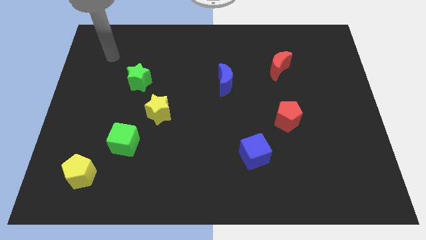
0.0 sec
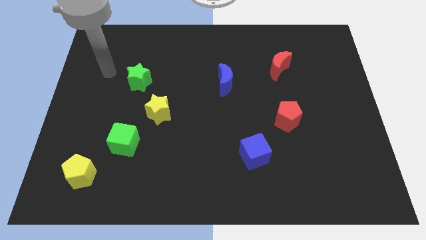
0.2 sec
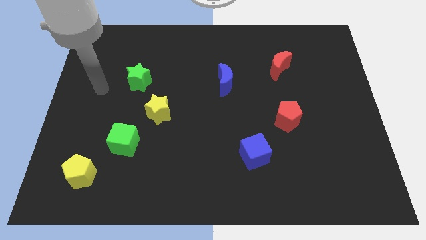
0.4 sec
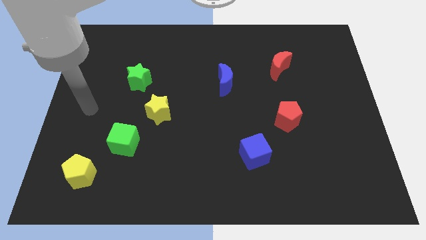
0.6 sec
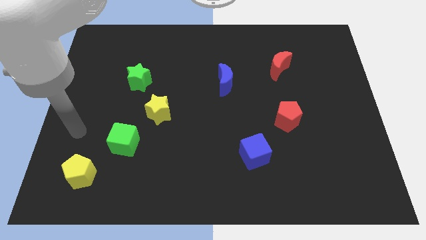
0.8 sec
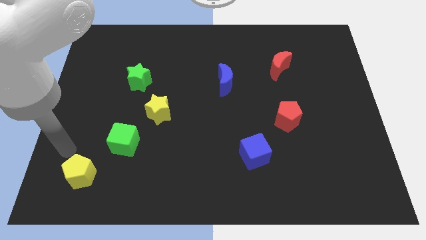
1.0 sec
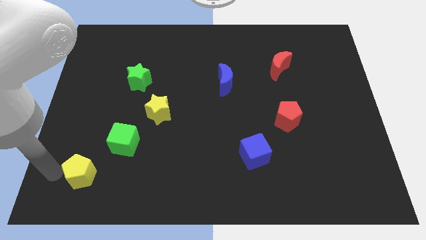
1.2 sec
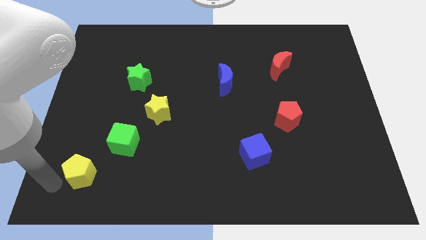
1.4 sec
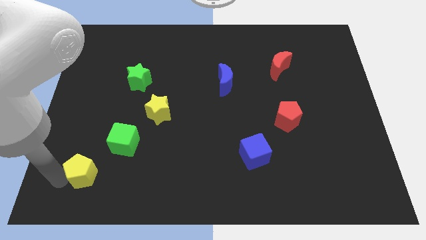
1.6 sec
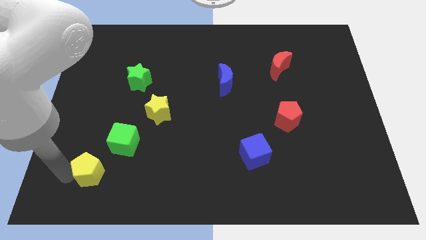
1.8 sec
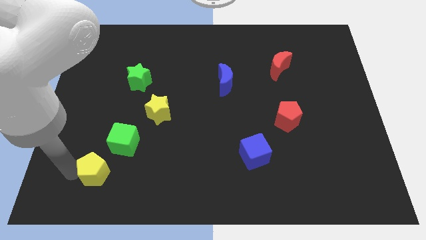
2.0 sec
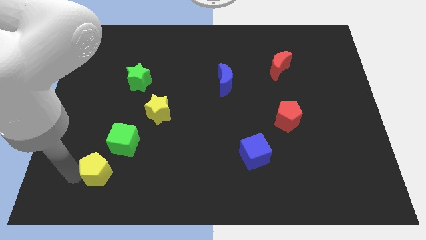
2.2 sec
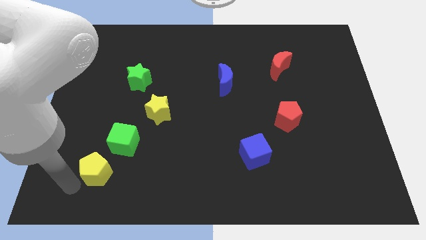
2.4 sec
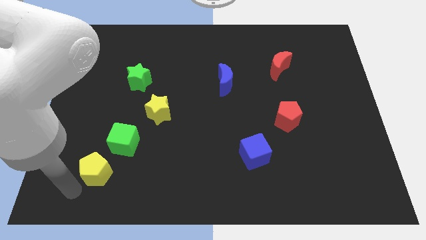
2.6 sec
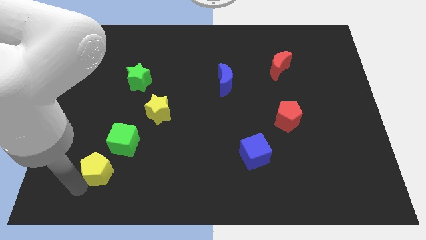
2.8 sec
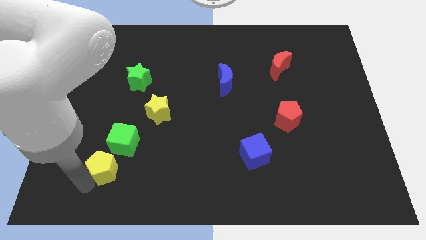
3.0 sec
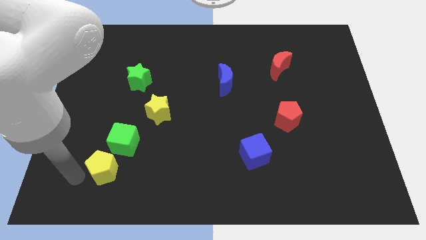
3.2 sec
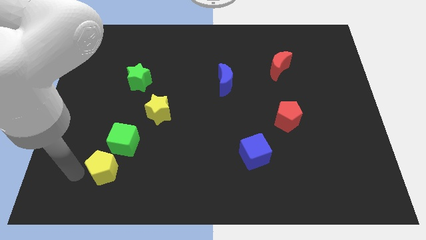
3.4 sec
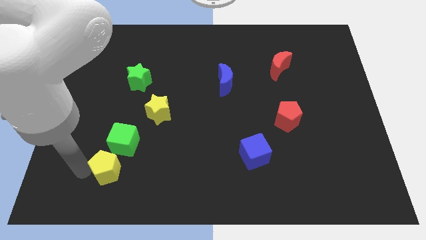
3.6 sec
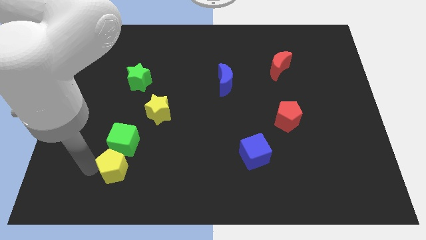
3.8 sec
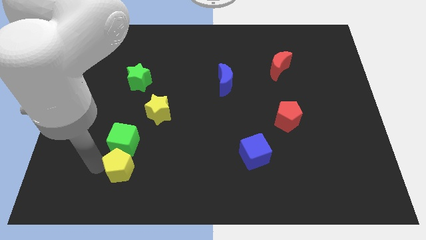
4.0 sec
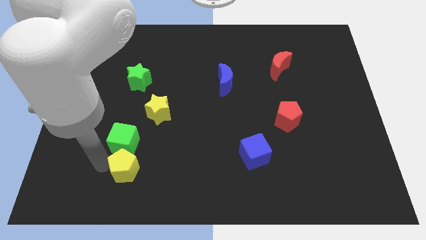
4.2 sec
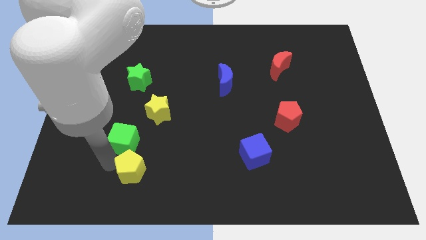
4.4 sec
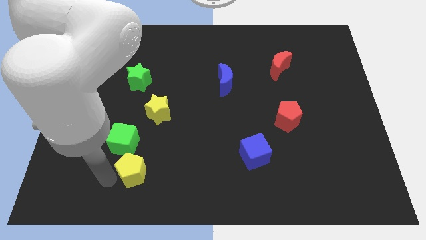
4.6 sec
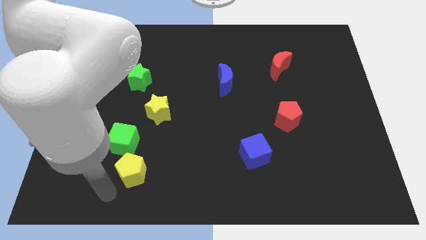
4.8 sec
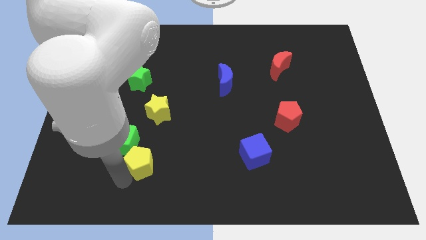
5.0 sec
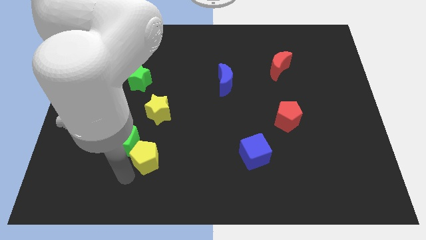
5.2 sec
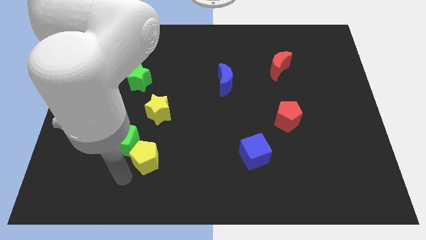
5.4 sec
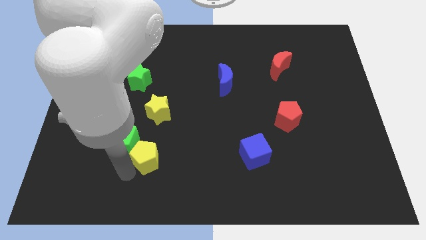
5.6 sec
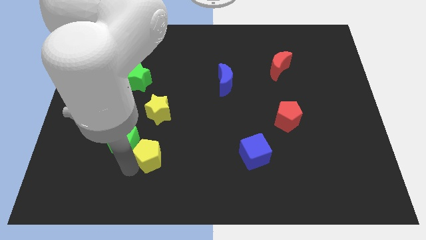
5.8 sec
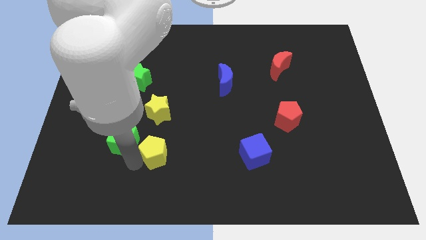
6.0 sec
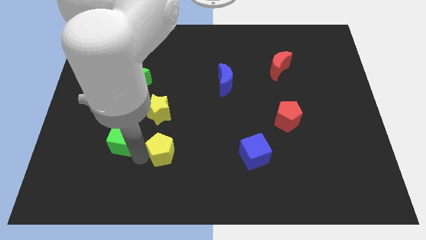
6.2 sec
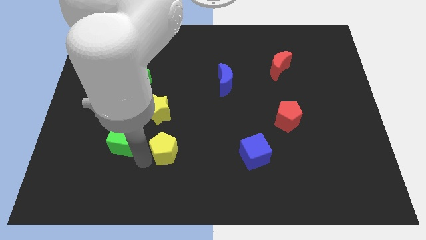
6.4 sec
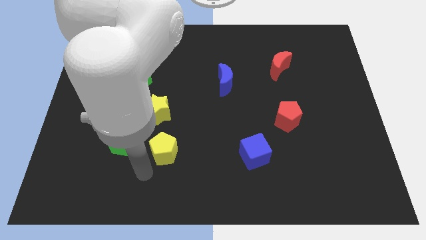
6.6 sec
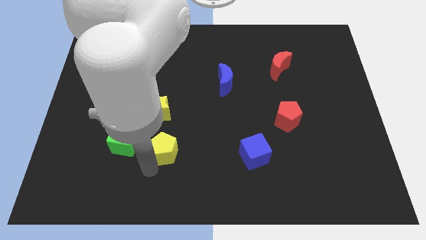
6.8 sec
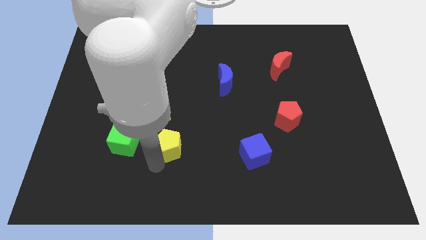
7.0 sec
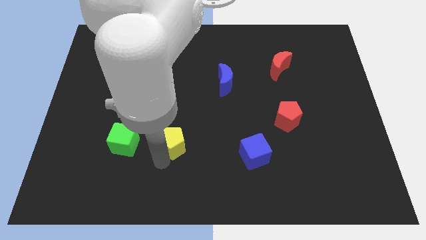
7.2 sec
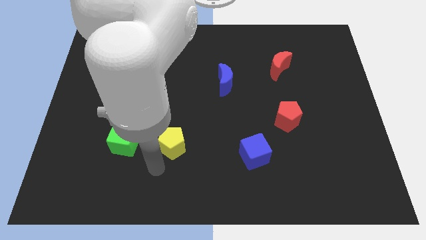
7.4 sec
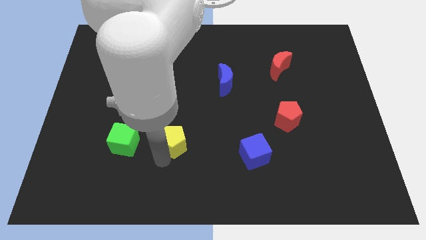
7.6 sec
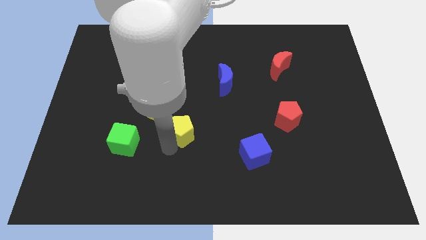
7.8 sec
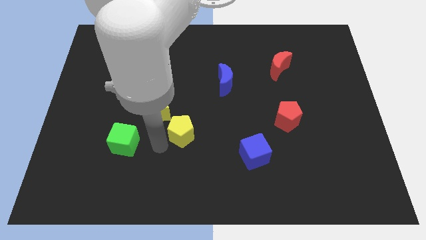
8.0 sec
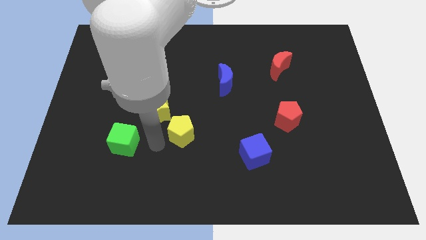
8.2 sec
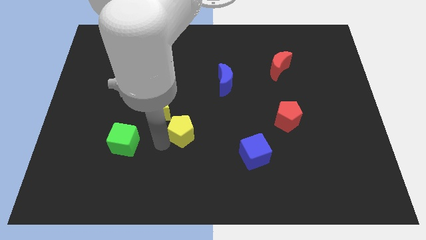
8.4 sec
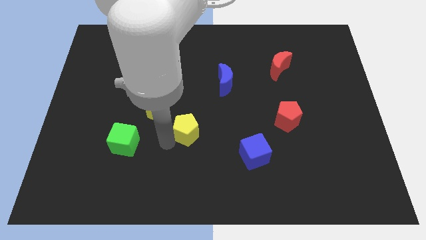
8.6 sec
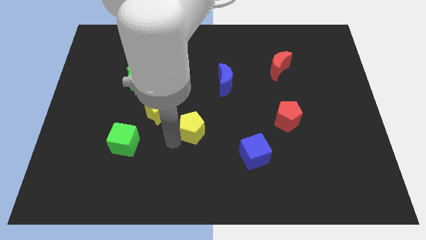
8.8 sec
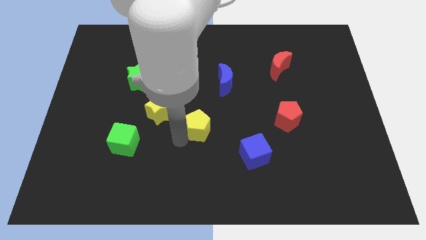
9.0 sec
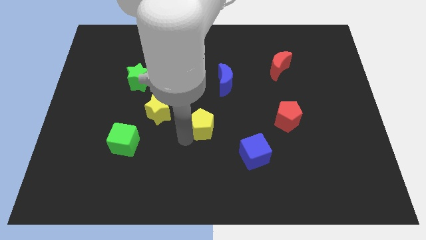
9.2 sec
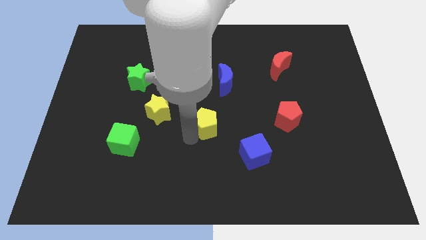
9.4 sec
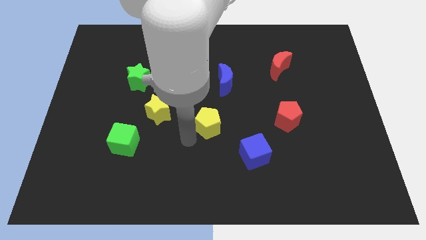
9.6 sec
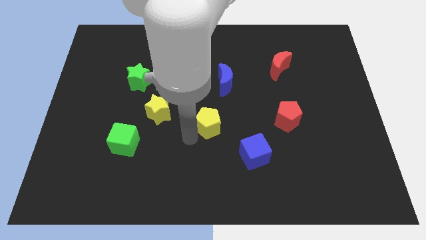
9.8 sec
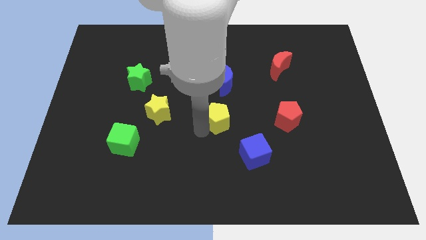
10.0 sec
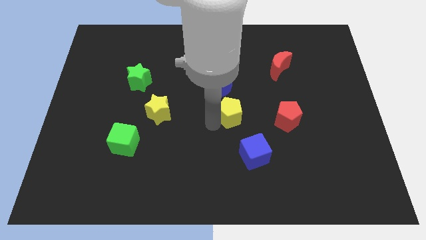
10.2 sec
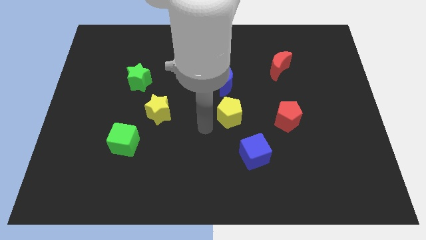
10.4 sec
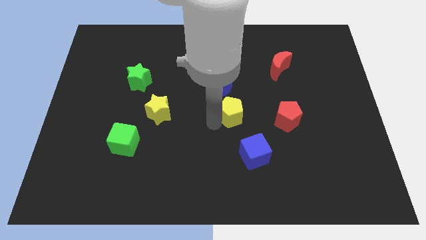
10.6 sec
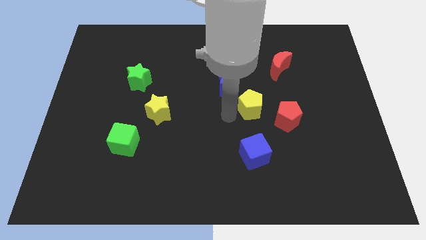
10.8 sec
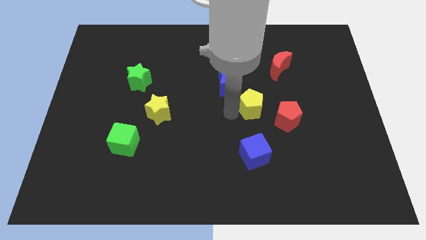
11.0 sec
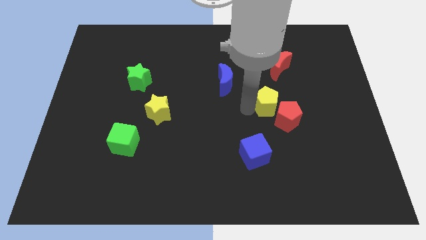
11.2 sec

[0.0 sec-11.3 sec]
push the yellow pentagon to the bottom of the red moon

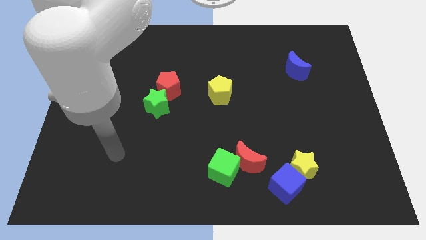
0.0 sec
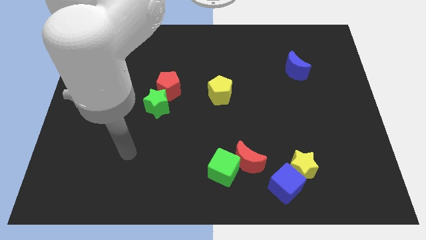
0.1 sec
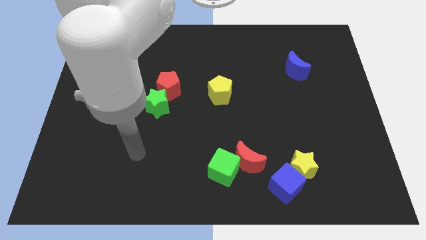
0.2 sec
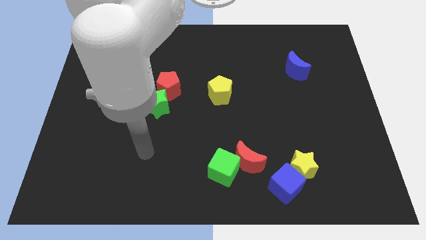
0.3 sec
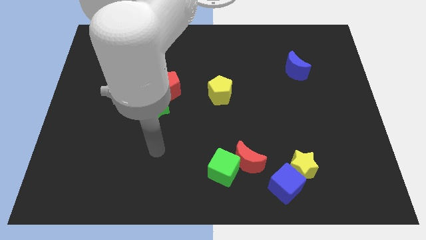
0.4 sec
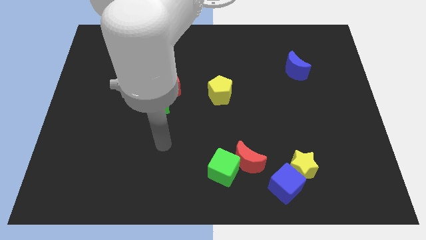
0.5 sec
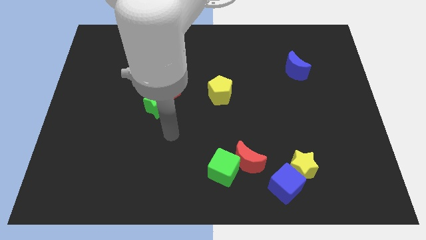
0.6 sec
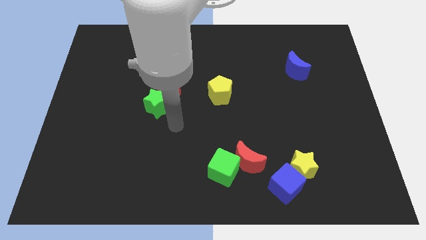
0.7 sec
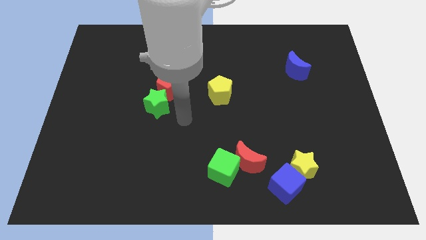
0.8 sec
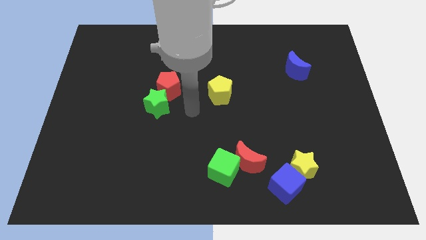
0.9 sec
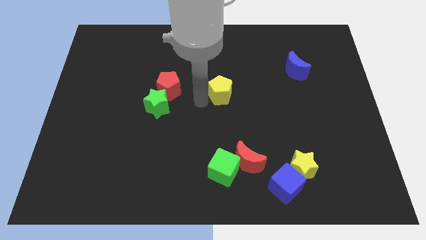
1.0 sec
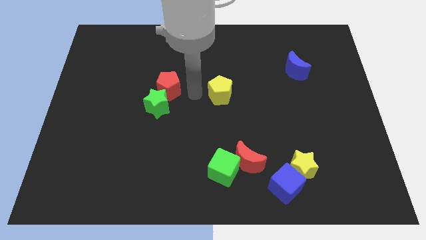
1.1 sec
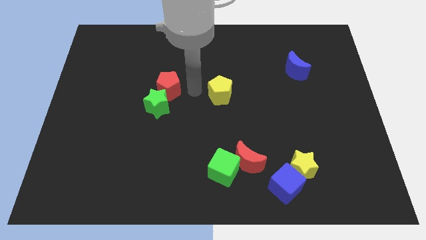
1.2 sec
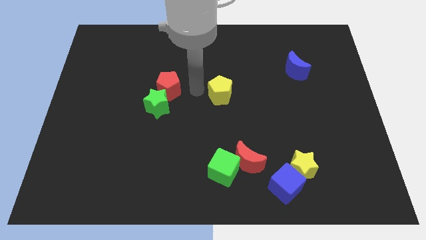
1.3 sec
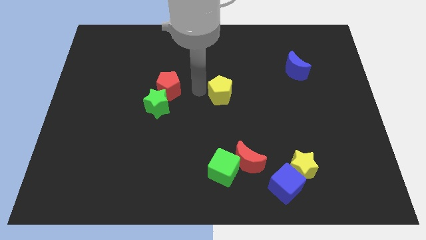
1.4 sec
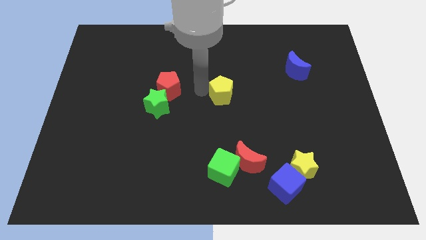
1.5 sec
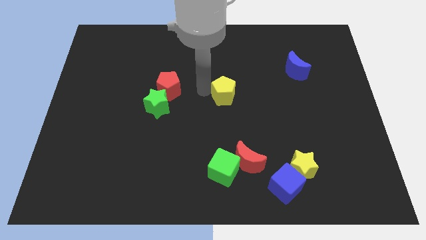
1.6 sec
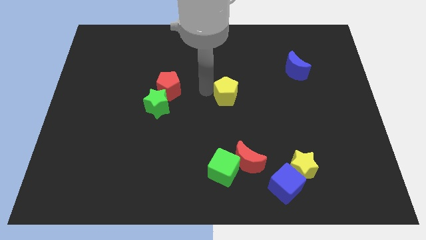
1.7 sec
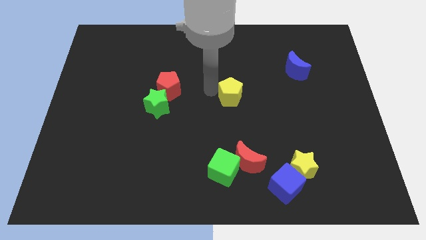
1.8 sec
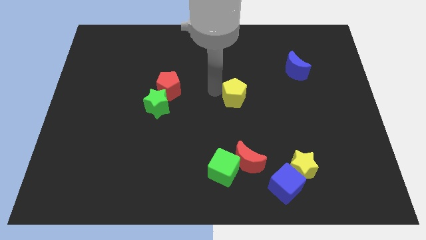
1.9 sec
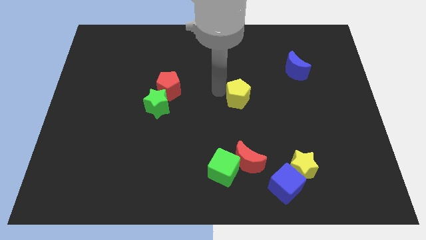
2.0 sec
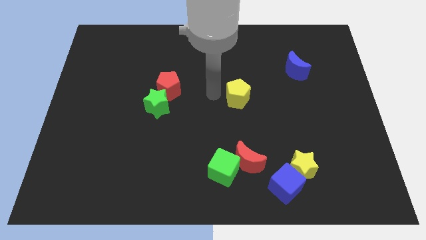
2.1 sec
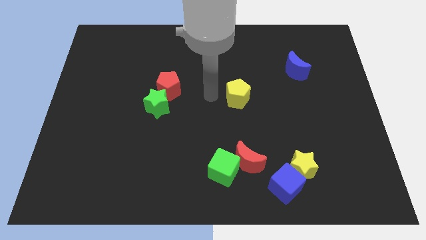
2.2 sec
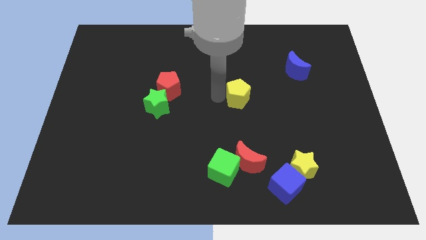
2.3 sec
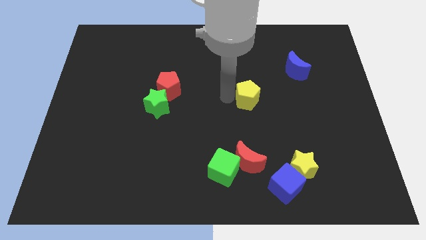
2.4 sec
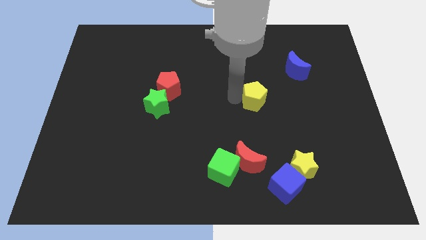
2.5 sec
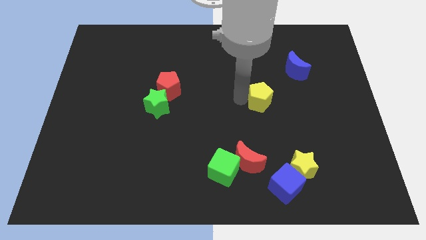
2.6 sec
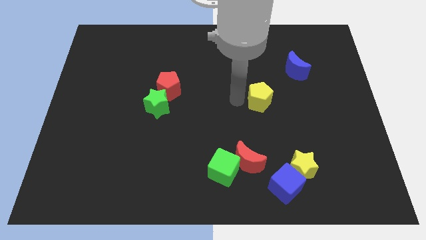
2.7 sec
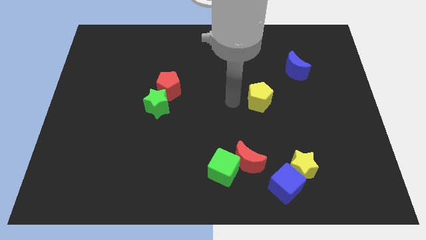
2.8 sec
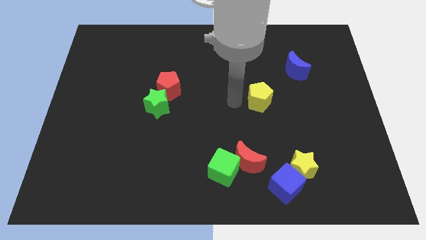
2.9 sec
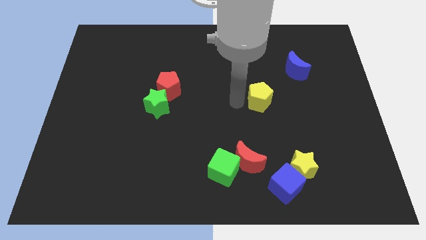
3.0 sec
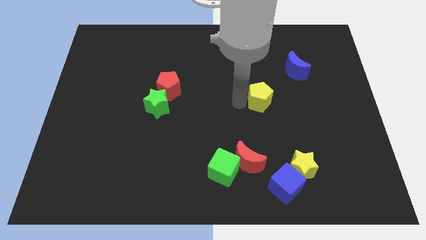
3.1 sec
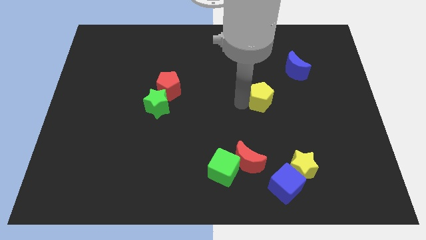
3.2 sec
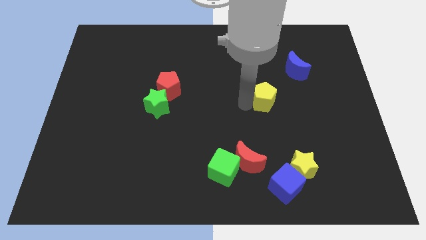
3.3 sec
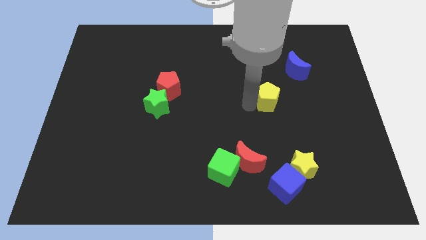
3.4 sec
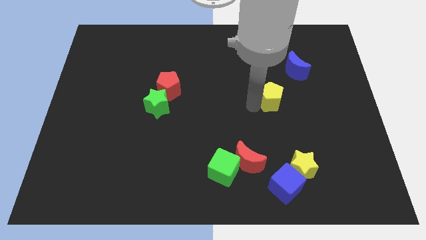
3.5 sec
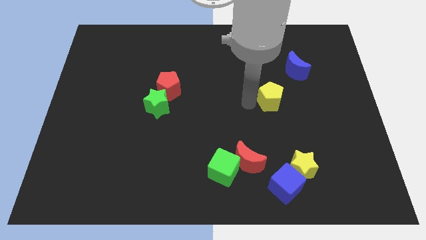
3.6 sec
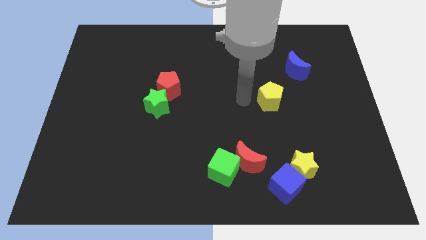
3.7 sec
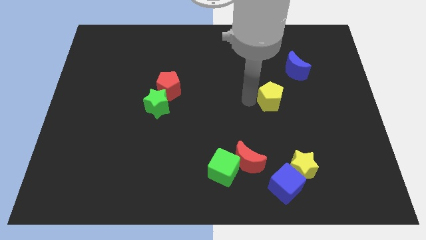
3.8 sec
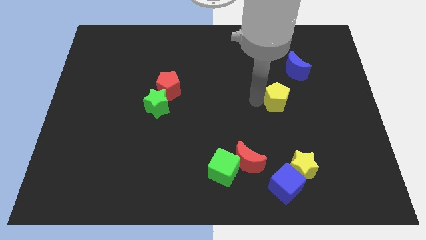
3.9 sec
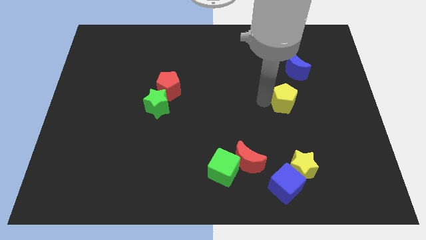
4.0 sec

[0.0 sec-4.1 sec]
push the yellow pentagon below the blue moon
